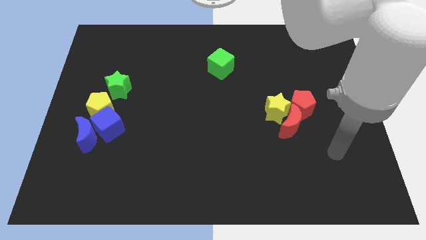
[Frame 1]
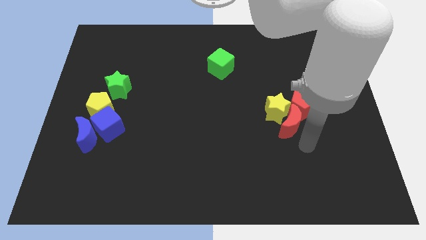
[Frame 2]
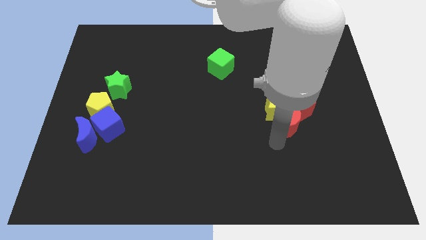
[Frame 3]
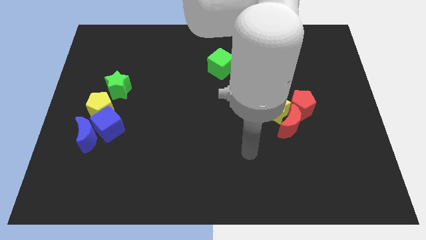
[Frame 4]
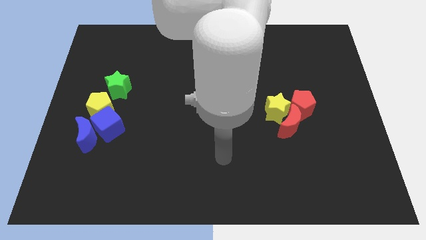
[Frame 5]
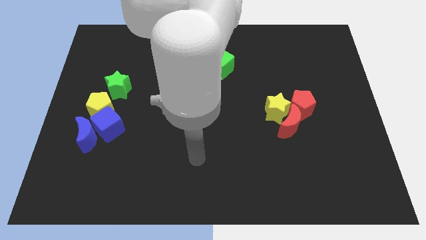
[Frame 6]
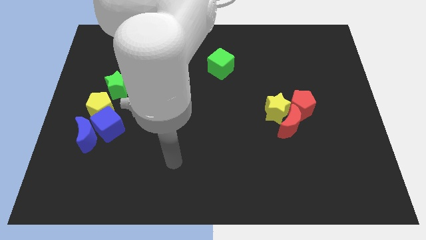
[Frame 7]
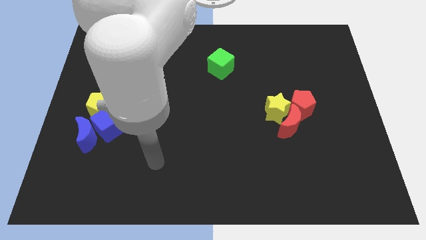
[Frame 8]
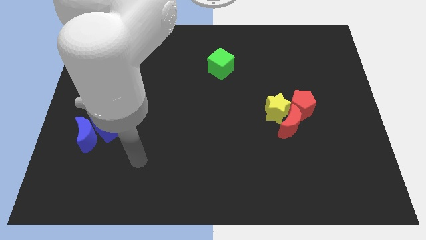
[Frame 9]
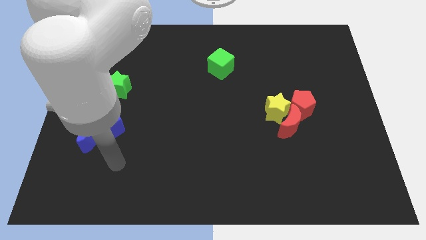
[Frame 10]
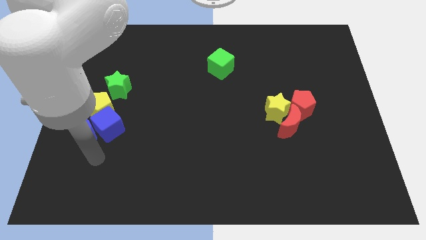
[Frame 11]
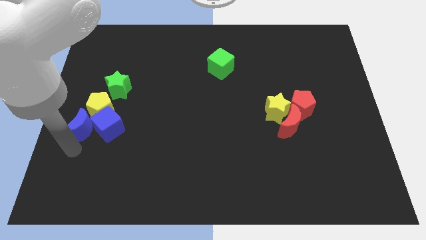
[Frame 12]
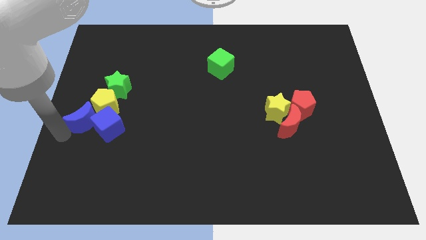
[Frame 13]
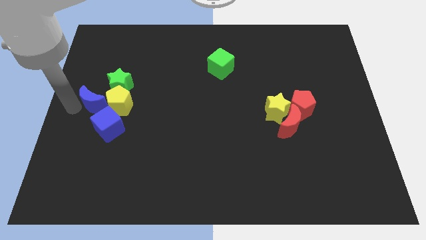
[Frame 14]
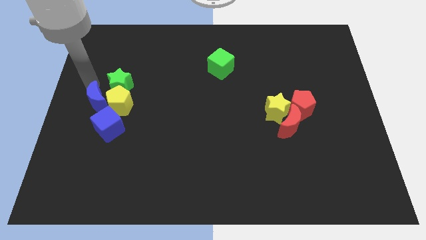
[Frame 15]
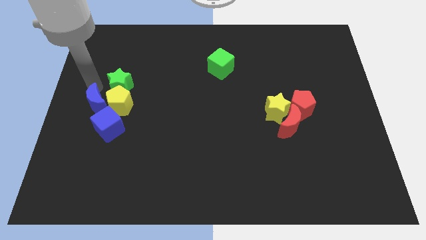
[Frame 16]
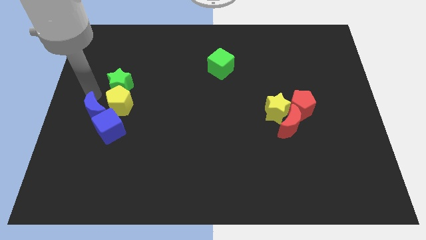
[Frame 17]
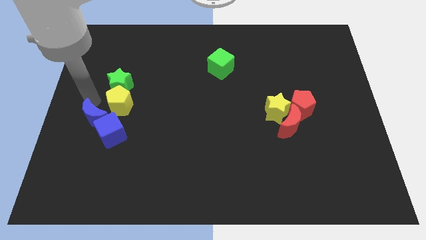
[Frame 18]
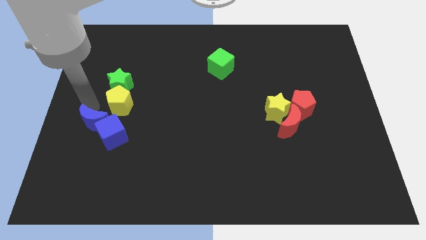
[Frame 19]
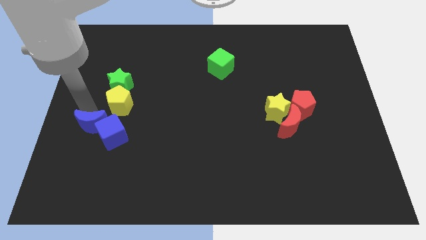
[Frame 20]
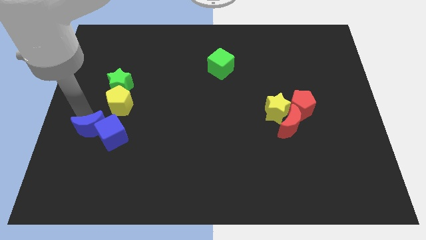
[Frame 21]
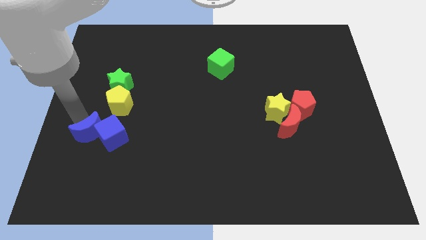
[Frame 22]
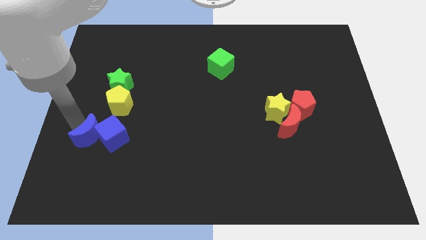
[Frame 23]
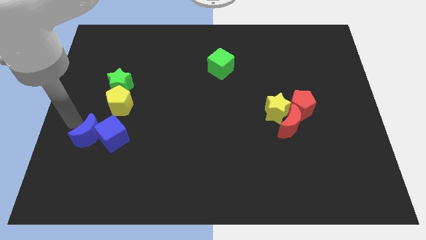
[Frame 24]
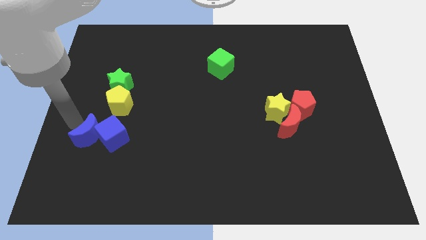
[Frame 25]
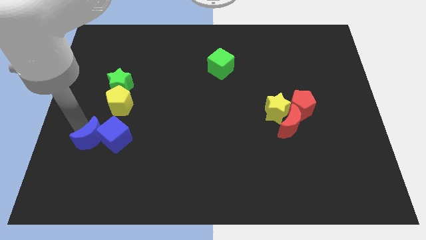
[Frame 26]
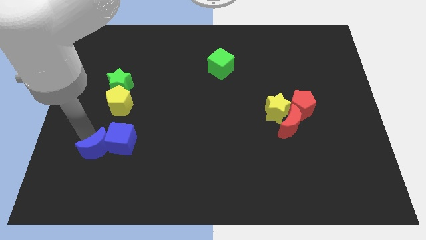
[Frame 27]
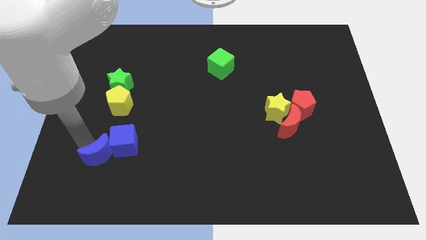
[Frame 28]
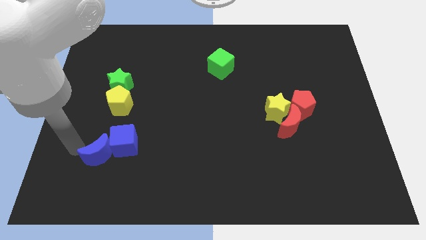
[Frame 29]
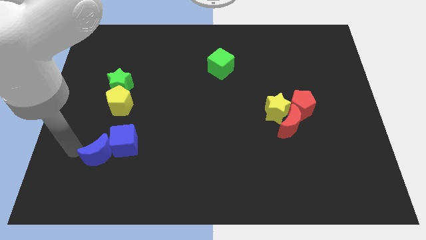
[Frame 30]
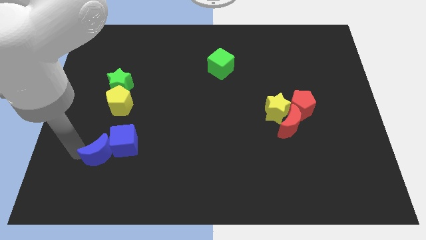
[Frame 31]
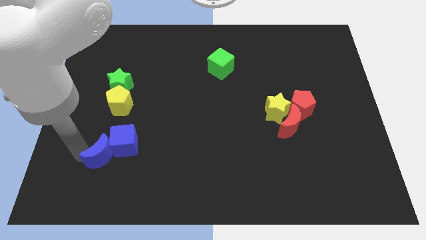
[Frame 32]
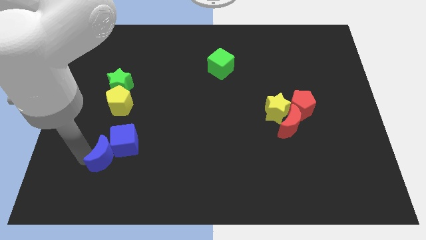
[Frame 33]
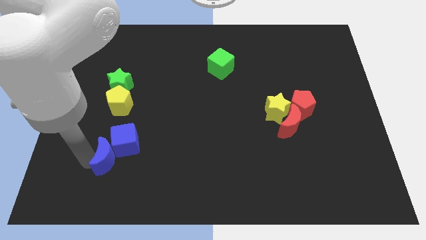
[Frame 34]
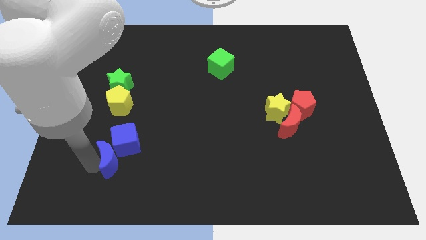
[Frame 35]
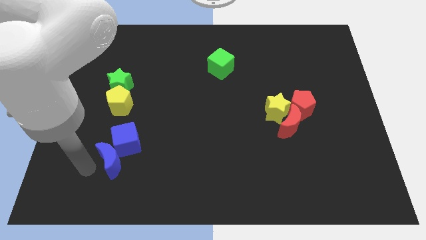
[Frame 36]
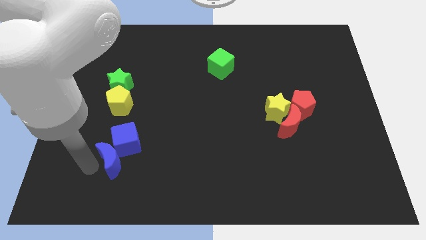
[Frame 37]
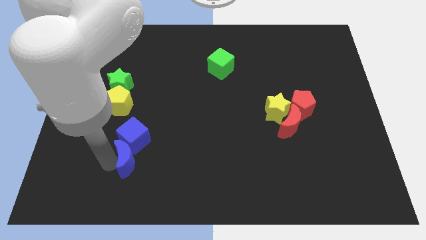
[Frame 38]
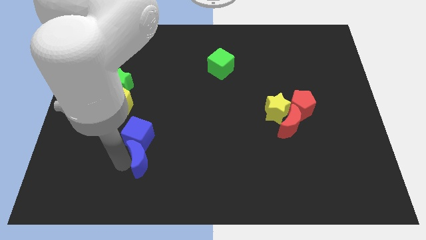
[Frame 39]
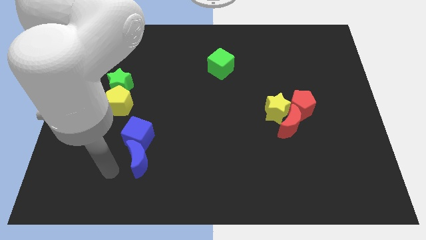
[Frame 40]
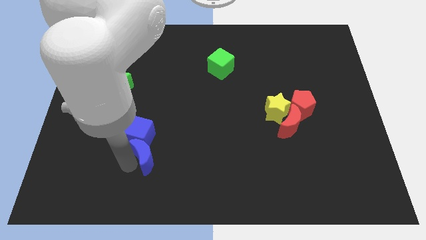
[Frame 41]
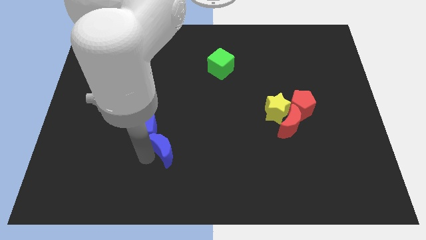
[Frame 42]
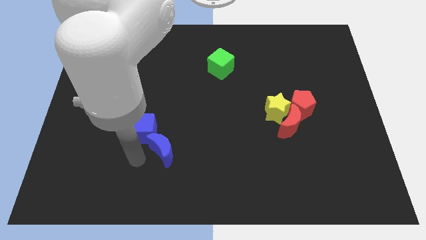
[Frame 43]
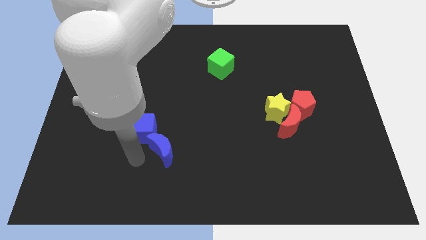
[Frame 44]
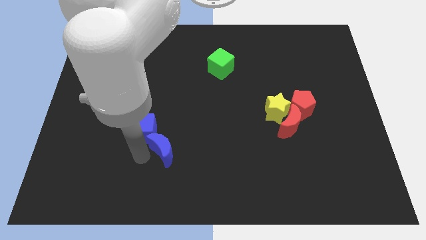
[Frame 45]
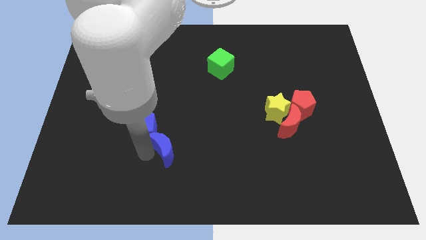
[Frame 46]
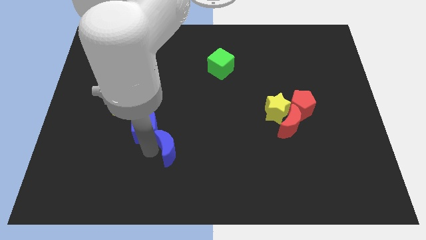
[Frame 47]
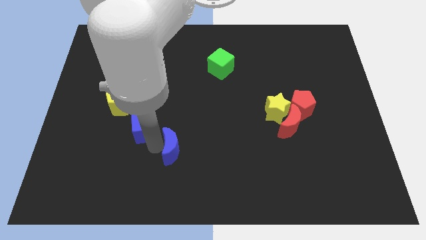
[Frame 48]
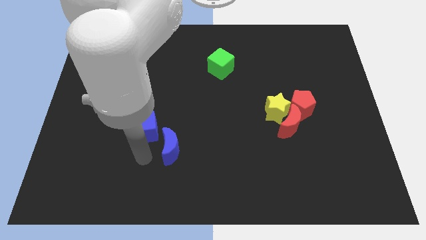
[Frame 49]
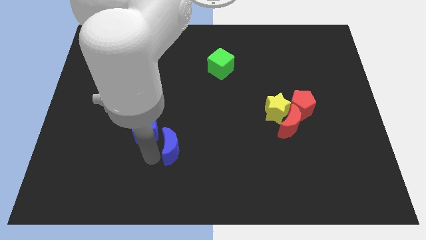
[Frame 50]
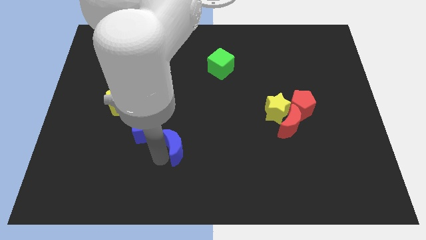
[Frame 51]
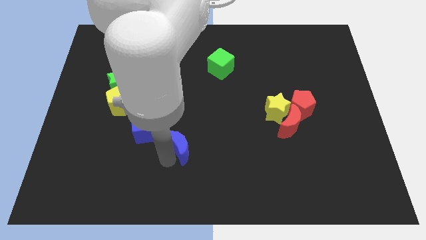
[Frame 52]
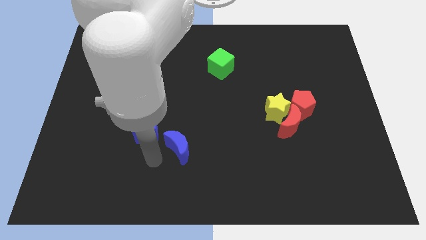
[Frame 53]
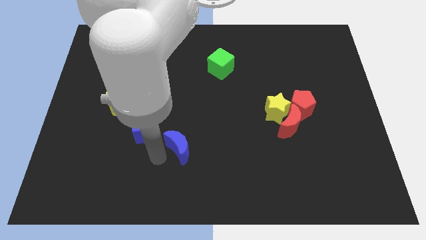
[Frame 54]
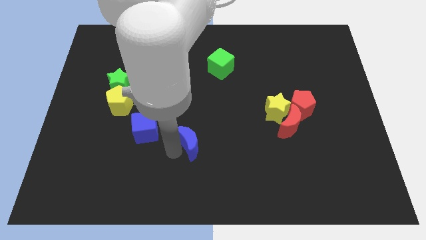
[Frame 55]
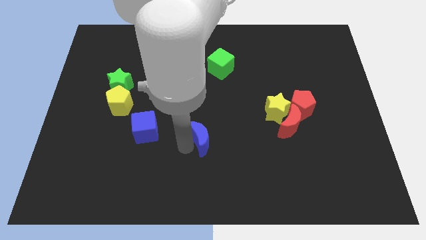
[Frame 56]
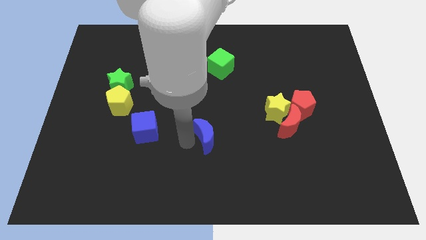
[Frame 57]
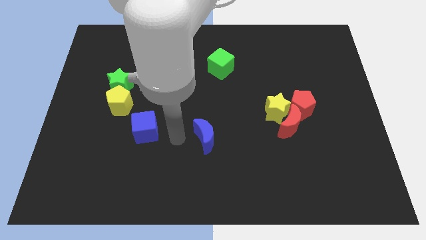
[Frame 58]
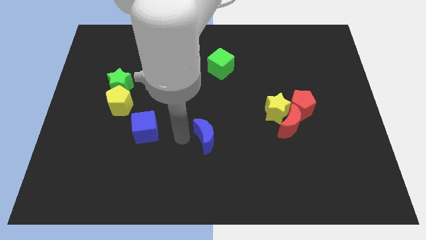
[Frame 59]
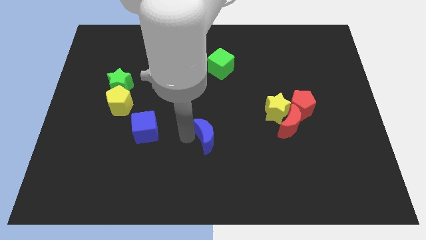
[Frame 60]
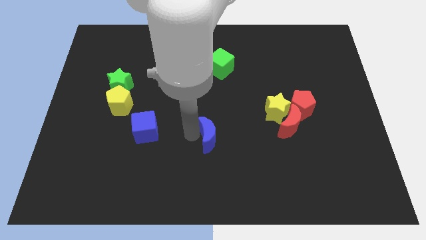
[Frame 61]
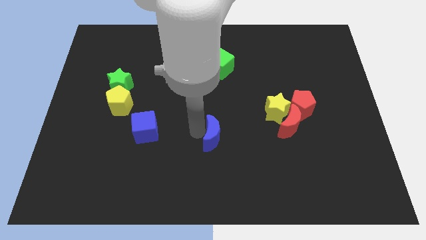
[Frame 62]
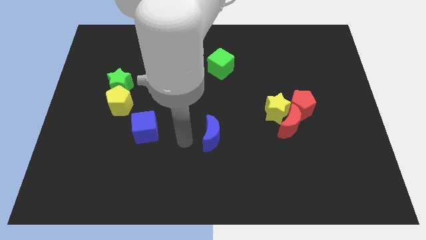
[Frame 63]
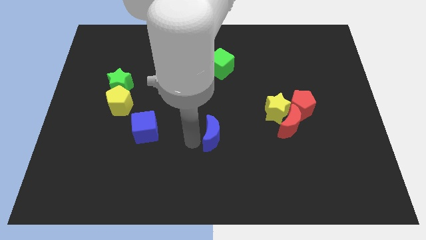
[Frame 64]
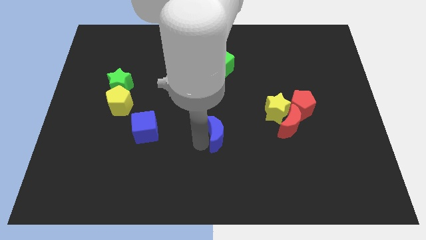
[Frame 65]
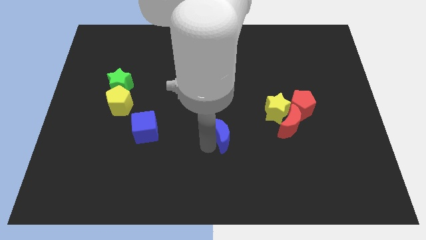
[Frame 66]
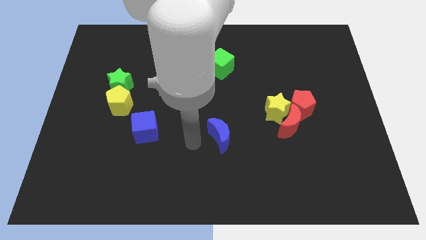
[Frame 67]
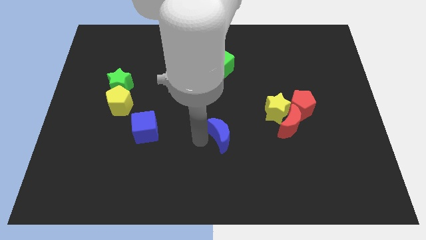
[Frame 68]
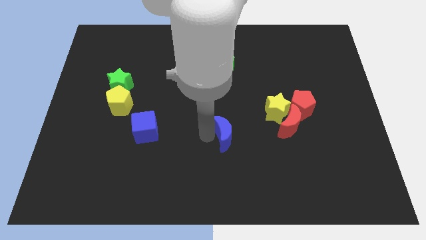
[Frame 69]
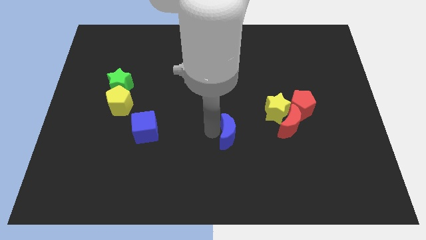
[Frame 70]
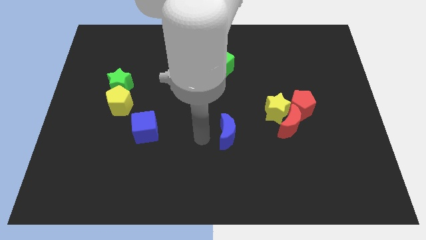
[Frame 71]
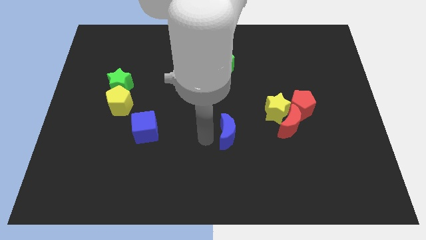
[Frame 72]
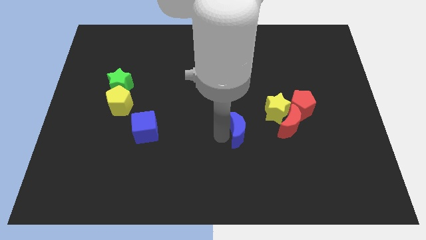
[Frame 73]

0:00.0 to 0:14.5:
put the blue moon diagonally down and to the left of the yellow star
